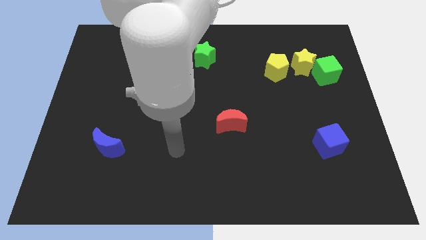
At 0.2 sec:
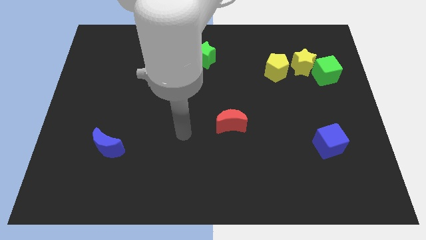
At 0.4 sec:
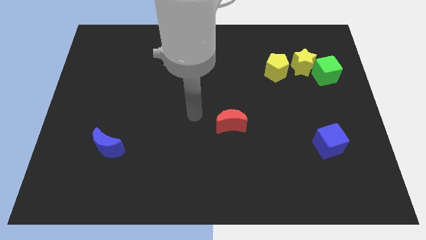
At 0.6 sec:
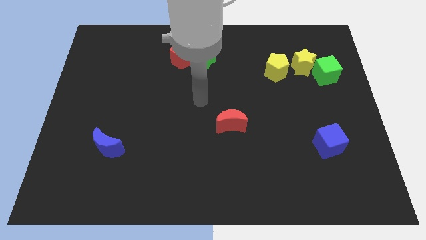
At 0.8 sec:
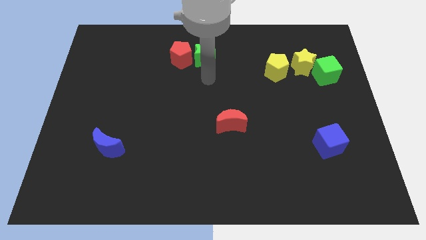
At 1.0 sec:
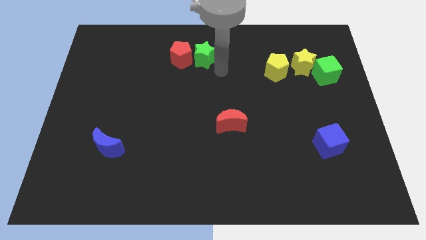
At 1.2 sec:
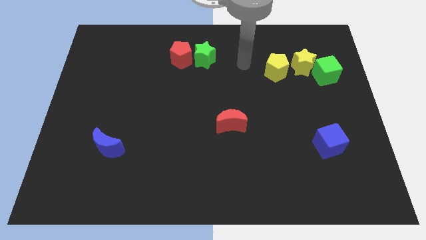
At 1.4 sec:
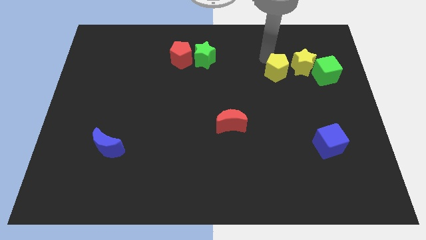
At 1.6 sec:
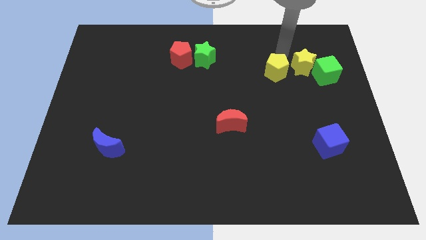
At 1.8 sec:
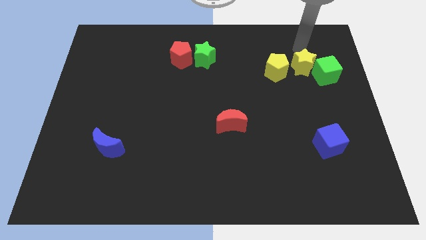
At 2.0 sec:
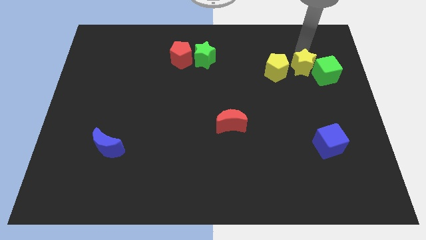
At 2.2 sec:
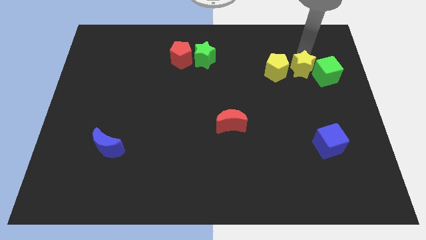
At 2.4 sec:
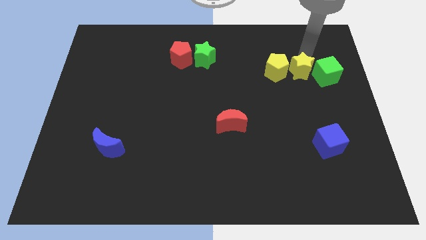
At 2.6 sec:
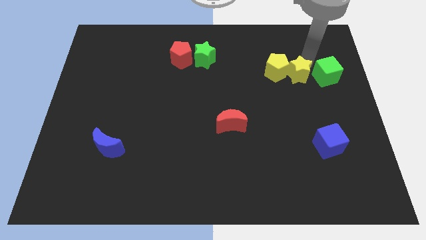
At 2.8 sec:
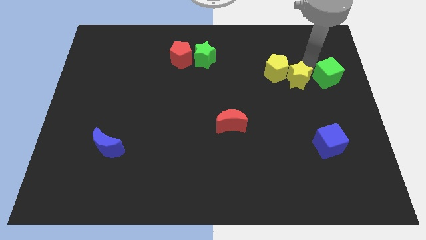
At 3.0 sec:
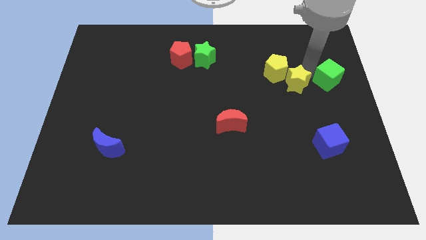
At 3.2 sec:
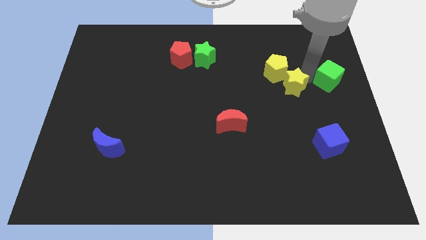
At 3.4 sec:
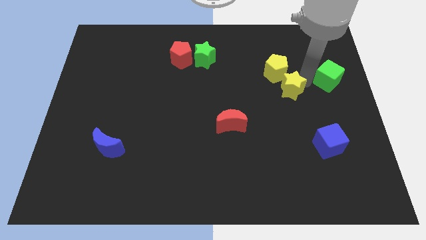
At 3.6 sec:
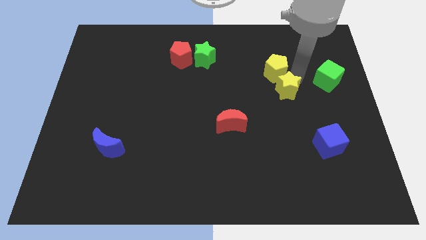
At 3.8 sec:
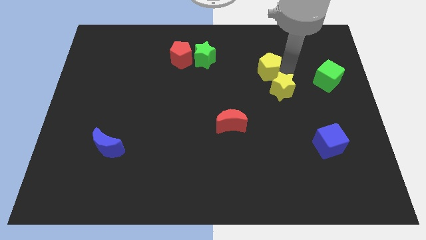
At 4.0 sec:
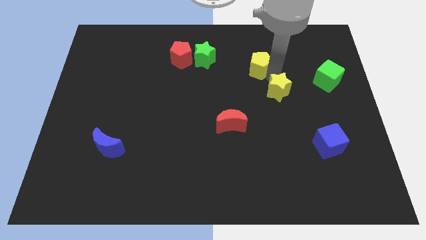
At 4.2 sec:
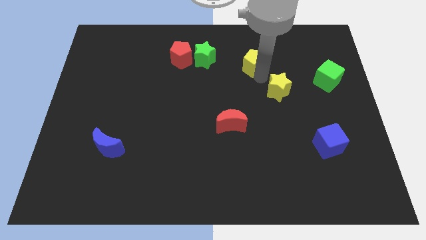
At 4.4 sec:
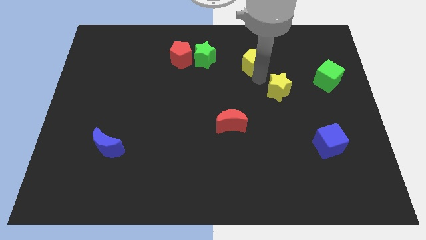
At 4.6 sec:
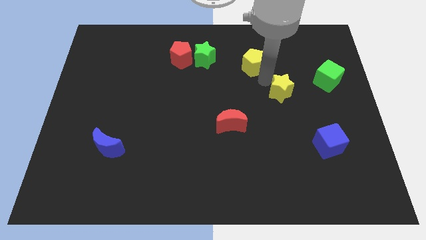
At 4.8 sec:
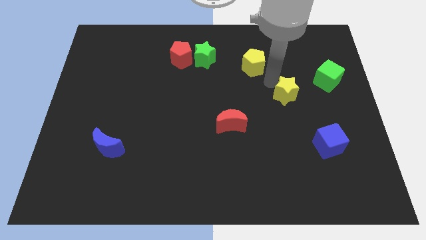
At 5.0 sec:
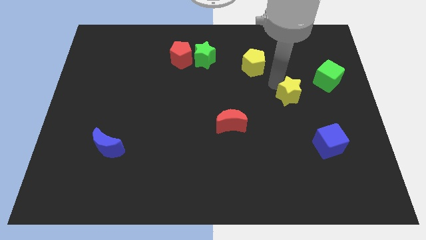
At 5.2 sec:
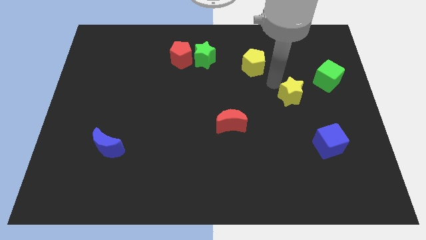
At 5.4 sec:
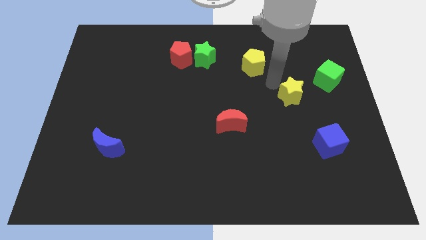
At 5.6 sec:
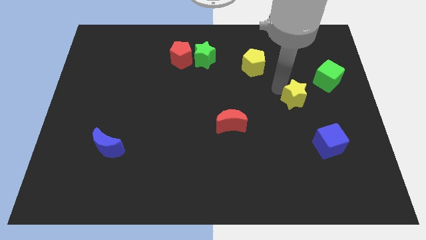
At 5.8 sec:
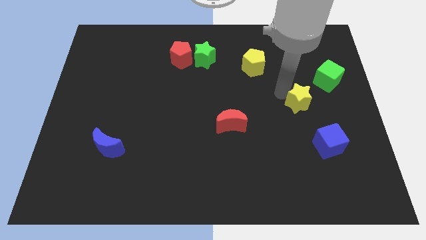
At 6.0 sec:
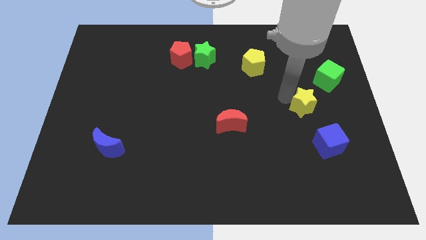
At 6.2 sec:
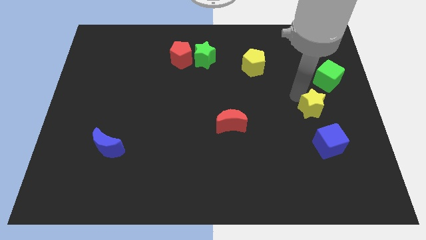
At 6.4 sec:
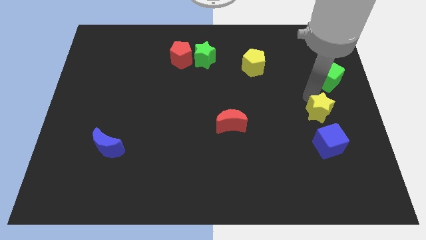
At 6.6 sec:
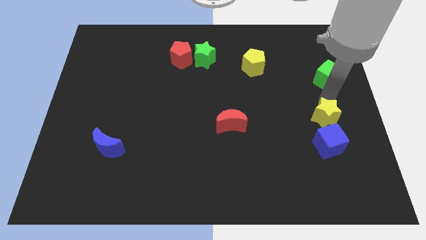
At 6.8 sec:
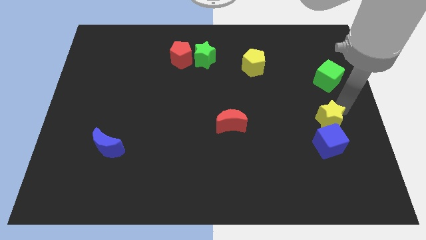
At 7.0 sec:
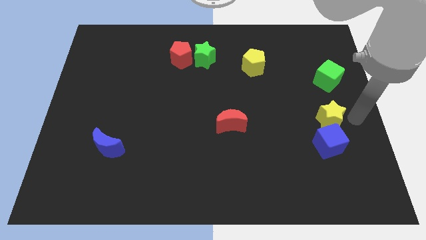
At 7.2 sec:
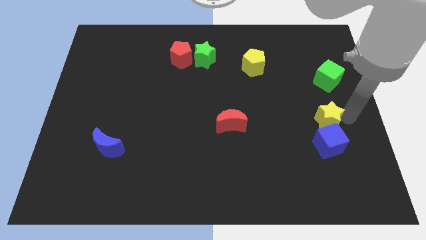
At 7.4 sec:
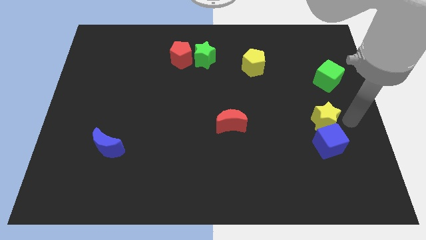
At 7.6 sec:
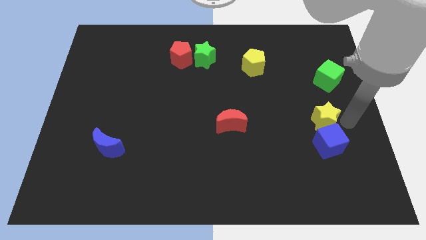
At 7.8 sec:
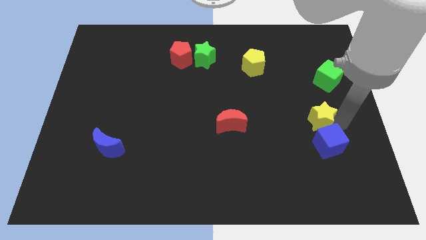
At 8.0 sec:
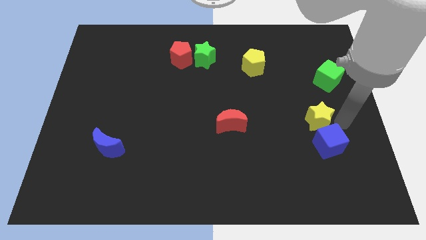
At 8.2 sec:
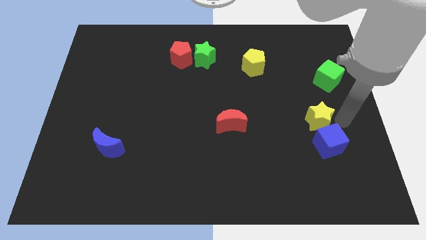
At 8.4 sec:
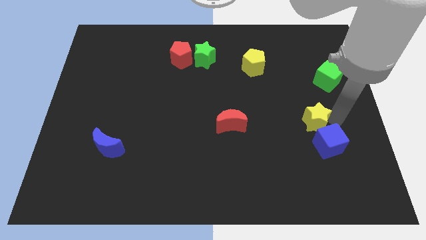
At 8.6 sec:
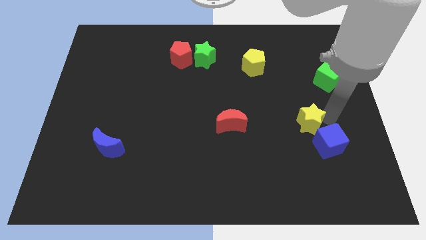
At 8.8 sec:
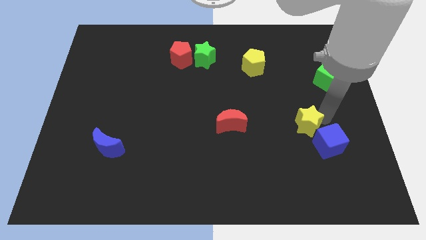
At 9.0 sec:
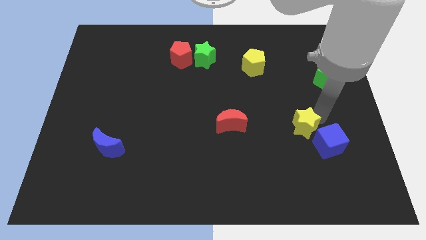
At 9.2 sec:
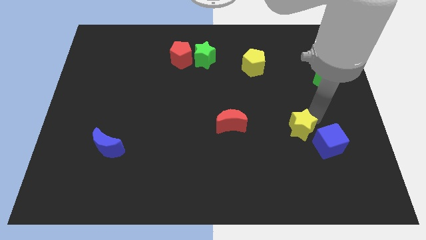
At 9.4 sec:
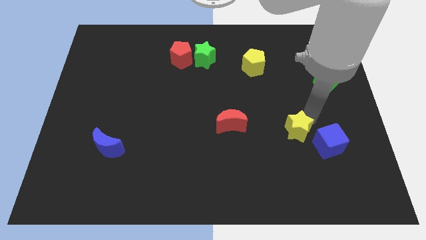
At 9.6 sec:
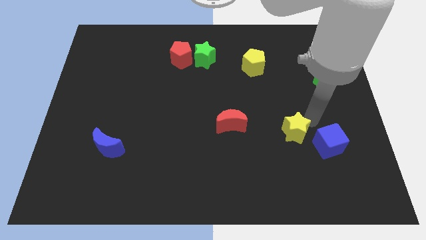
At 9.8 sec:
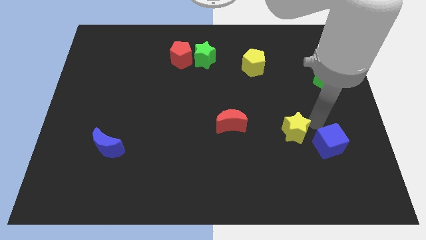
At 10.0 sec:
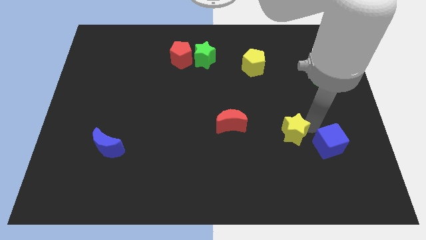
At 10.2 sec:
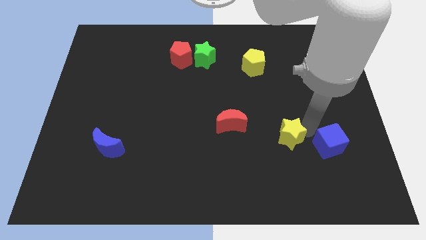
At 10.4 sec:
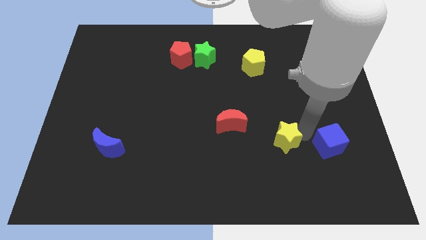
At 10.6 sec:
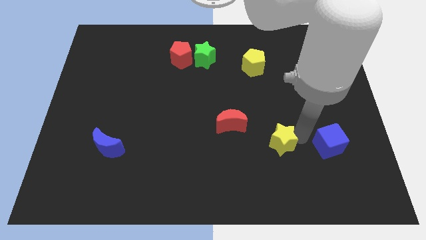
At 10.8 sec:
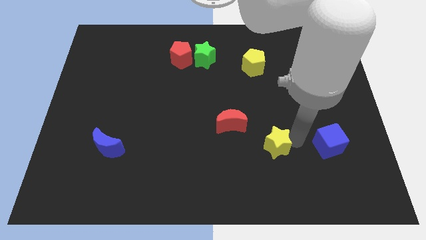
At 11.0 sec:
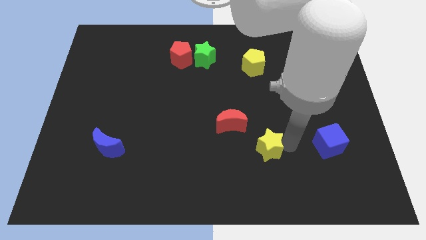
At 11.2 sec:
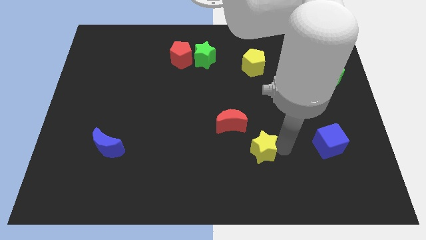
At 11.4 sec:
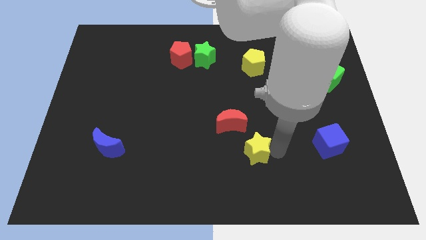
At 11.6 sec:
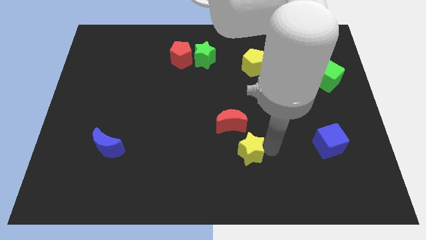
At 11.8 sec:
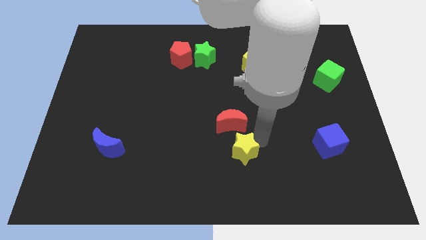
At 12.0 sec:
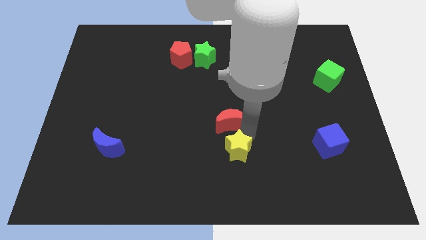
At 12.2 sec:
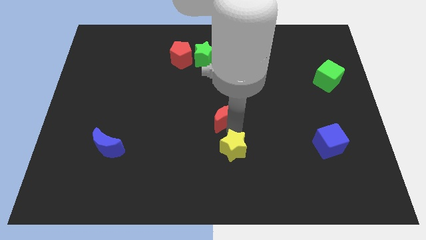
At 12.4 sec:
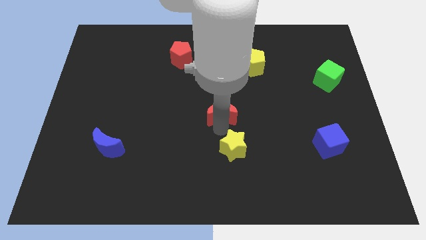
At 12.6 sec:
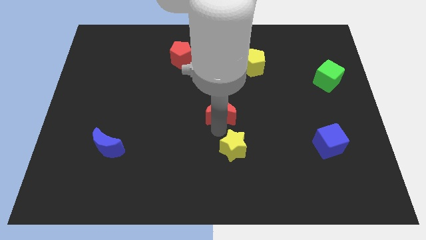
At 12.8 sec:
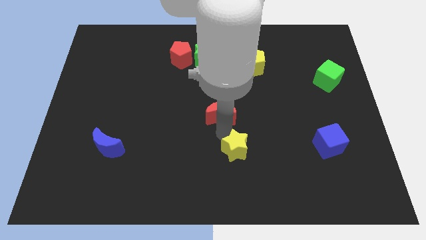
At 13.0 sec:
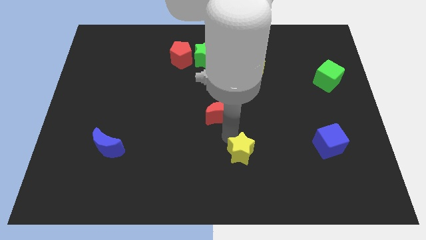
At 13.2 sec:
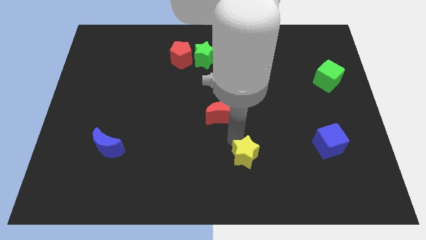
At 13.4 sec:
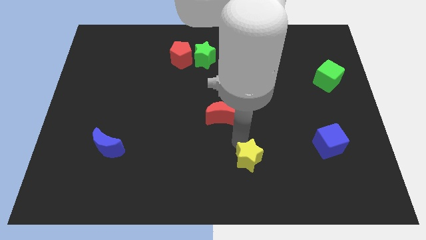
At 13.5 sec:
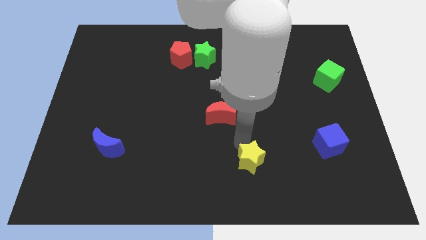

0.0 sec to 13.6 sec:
push the yellow star to the bottom side
